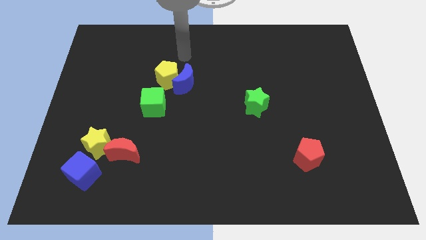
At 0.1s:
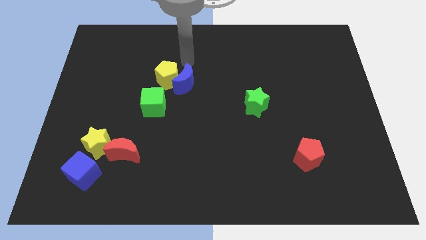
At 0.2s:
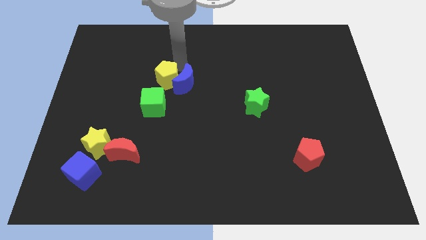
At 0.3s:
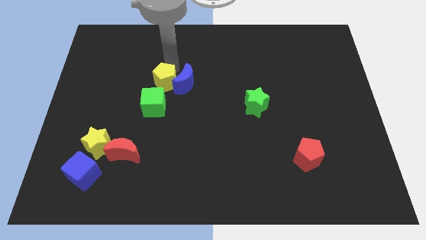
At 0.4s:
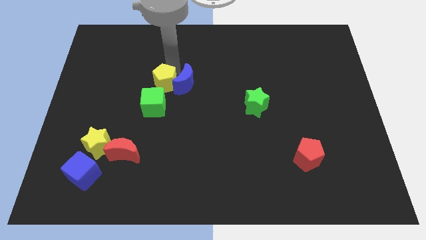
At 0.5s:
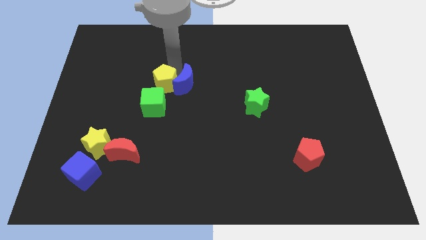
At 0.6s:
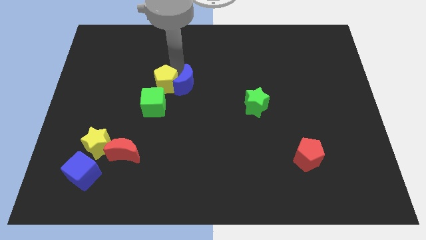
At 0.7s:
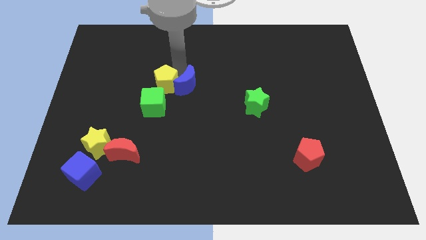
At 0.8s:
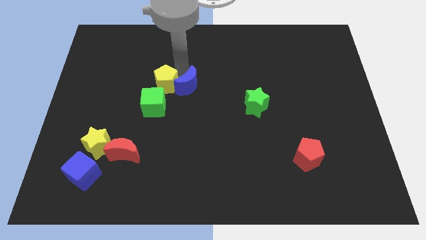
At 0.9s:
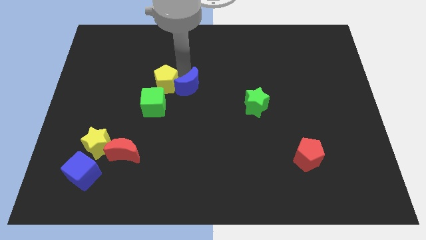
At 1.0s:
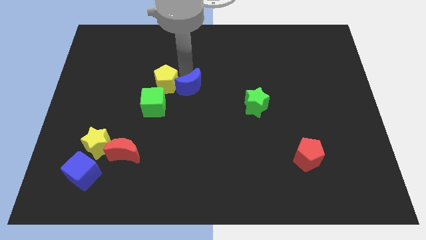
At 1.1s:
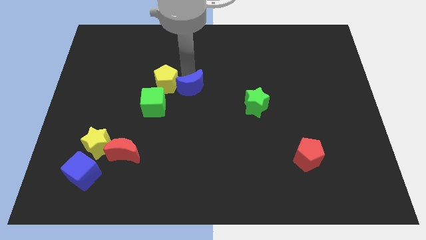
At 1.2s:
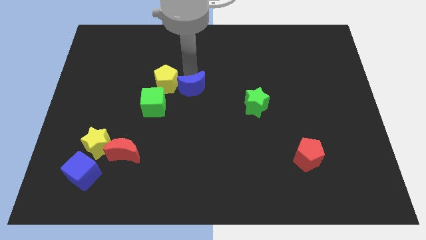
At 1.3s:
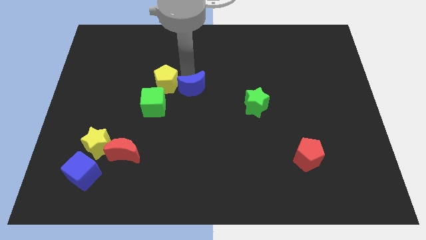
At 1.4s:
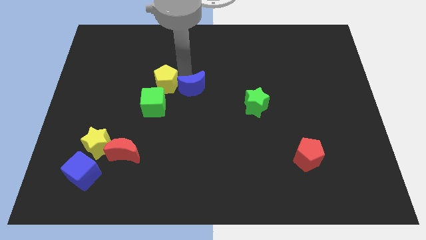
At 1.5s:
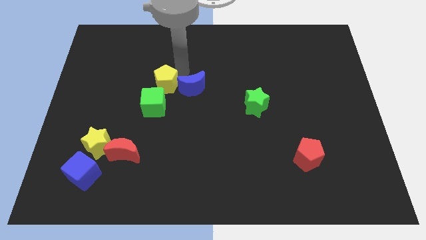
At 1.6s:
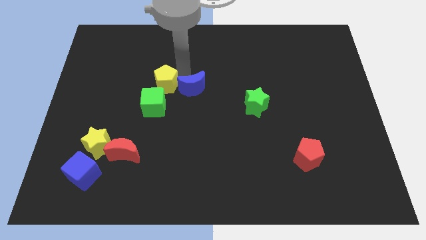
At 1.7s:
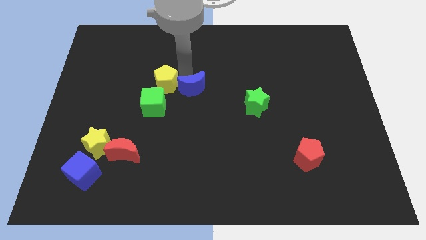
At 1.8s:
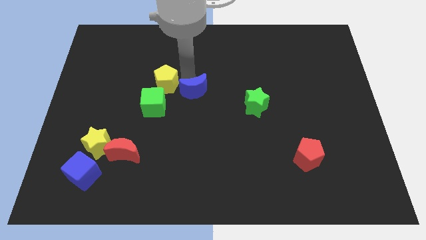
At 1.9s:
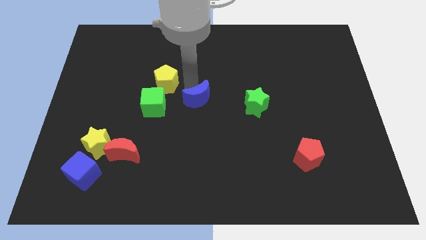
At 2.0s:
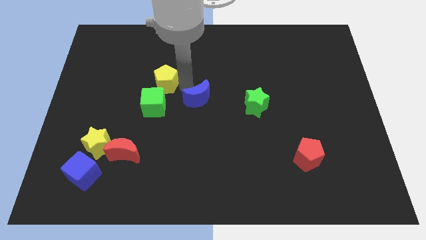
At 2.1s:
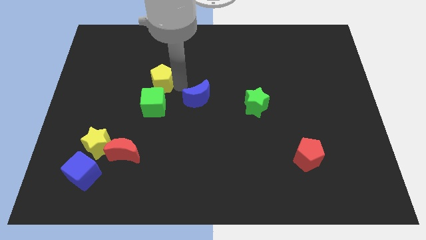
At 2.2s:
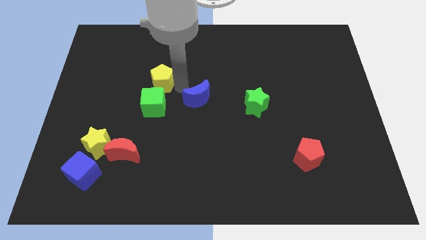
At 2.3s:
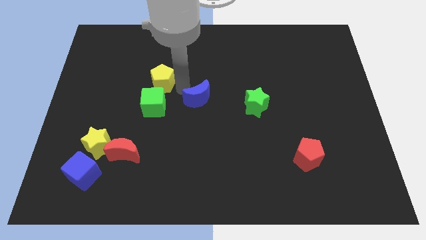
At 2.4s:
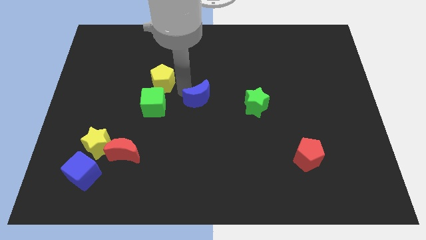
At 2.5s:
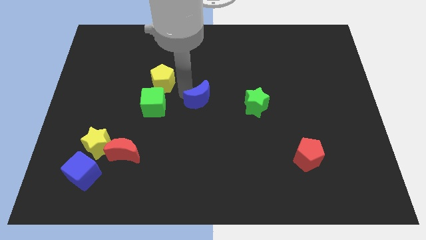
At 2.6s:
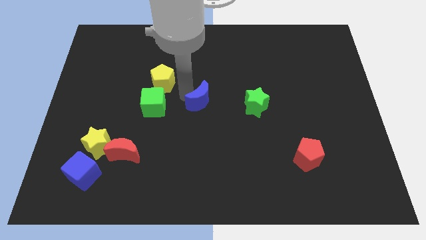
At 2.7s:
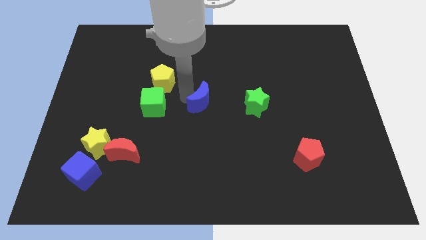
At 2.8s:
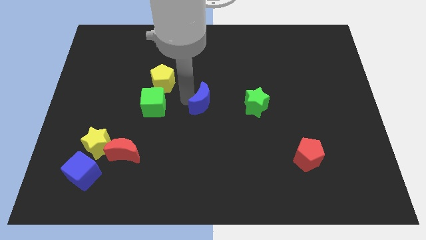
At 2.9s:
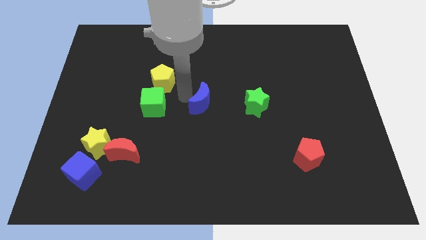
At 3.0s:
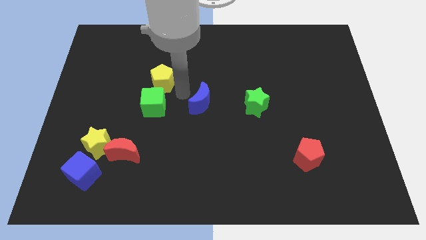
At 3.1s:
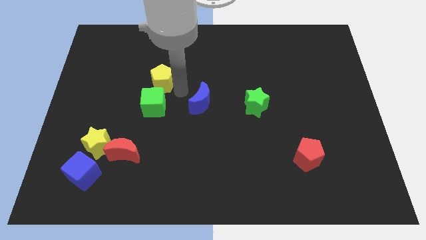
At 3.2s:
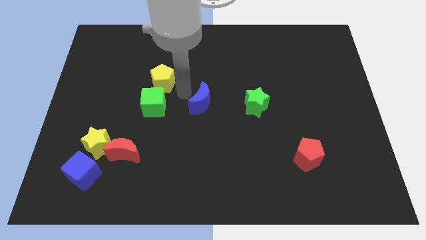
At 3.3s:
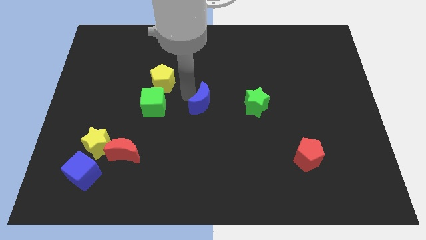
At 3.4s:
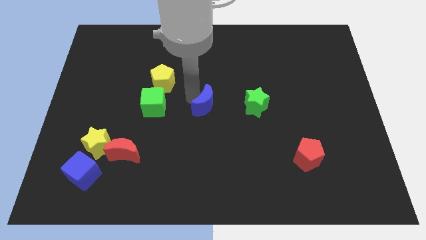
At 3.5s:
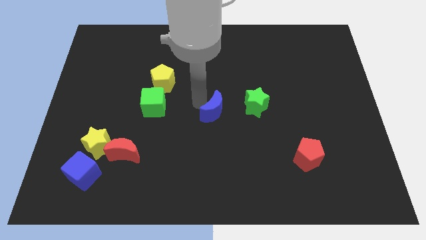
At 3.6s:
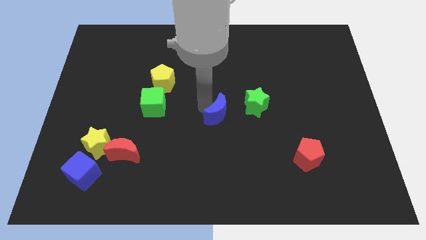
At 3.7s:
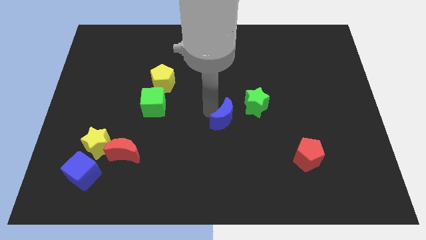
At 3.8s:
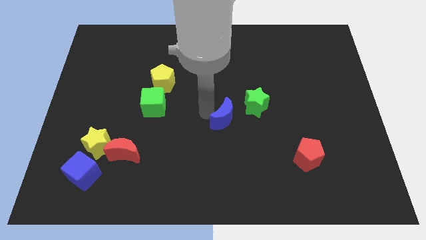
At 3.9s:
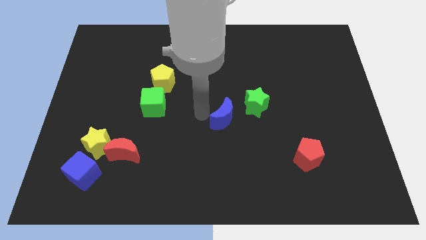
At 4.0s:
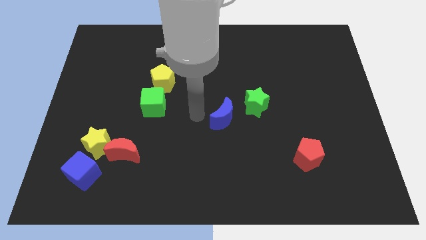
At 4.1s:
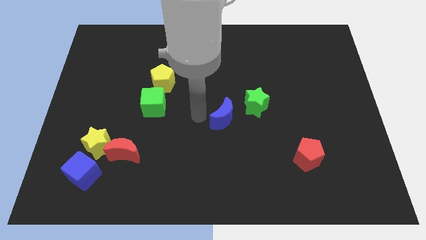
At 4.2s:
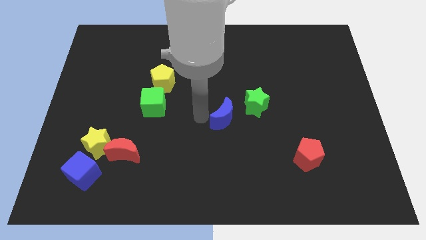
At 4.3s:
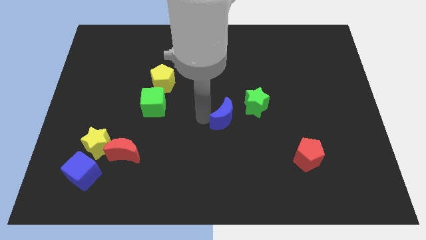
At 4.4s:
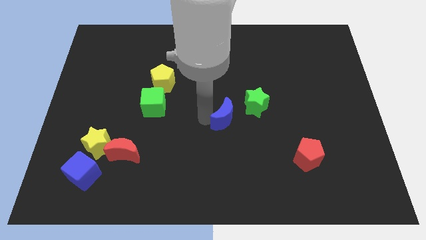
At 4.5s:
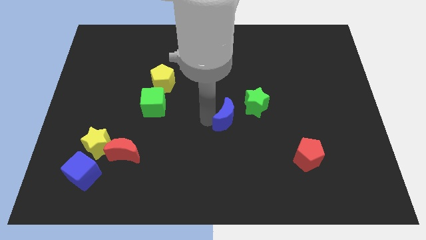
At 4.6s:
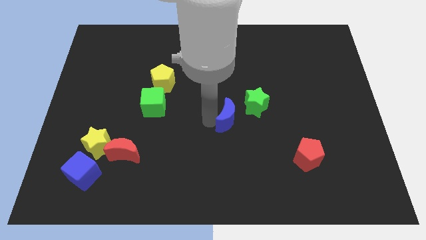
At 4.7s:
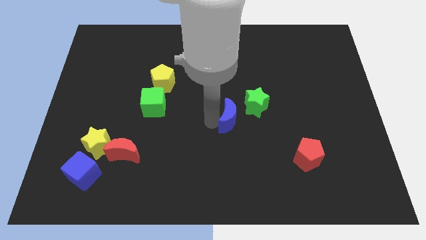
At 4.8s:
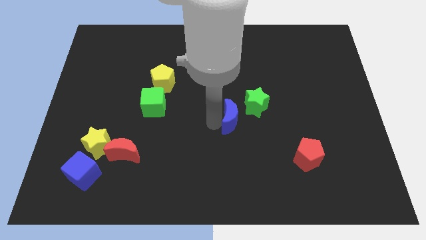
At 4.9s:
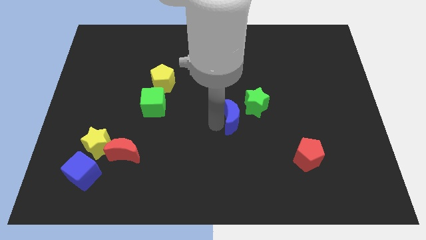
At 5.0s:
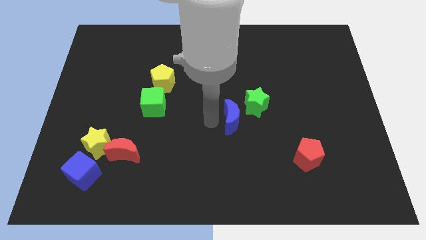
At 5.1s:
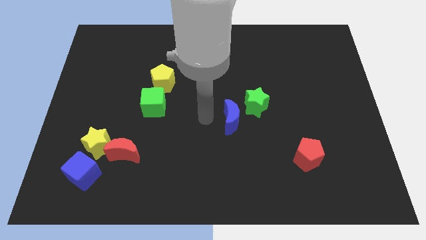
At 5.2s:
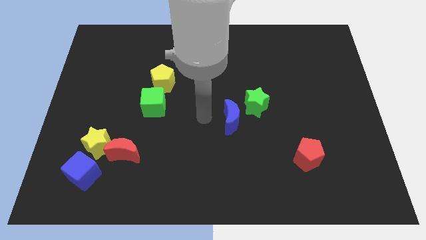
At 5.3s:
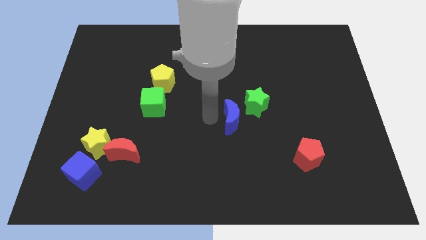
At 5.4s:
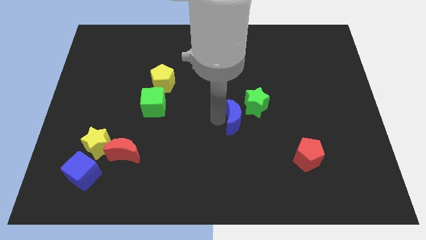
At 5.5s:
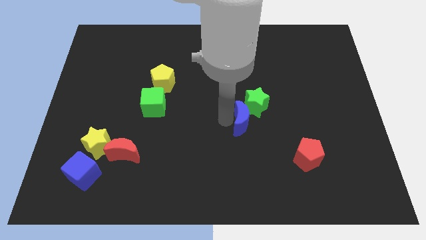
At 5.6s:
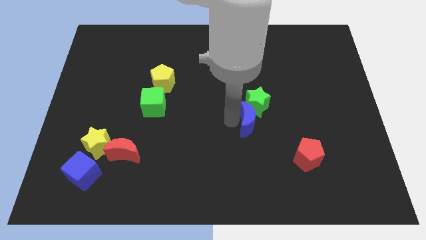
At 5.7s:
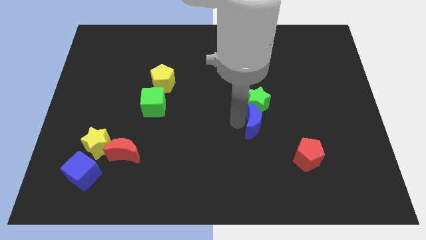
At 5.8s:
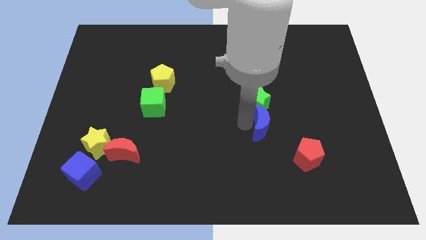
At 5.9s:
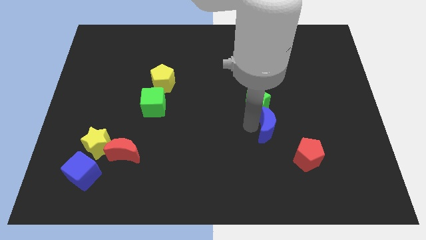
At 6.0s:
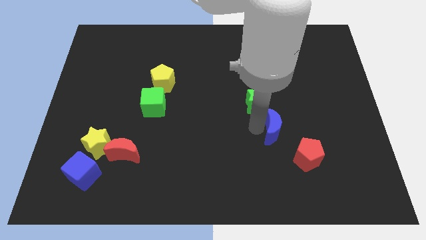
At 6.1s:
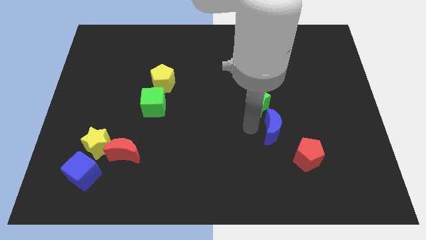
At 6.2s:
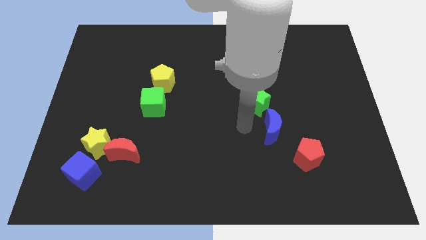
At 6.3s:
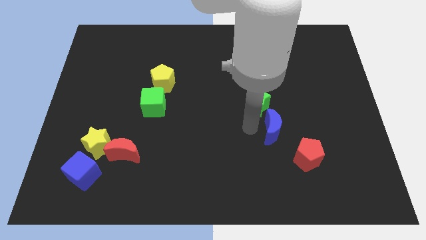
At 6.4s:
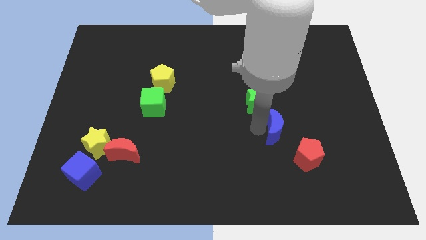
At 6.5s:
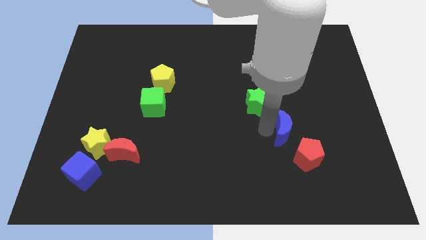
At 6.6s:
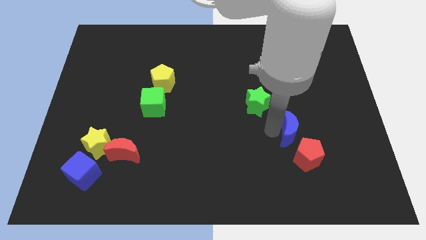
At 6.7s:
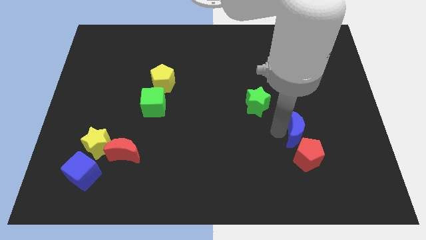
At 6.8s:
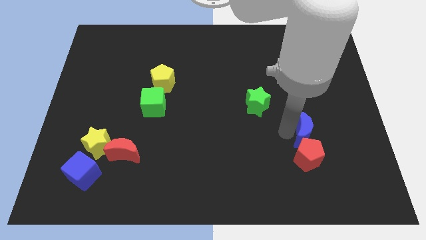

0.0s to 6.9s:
push the blue moon to the top right of the red pentagon

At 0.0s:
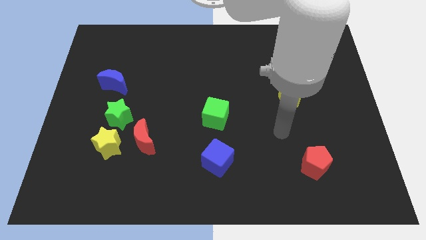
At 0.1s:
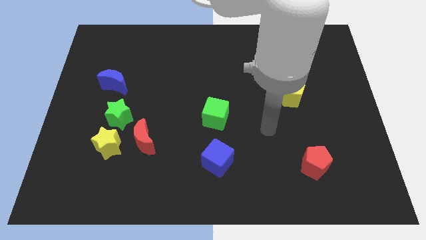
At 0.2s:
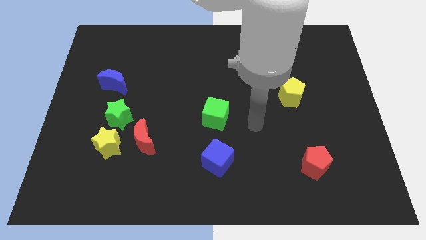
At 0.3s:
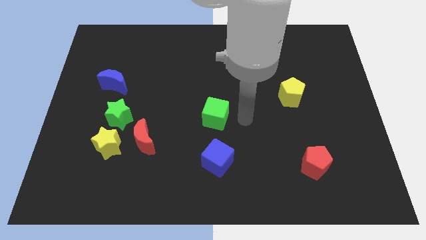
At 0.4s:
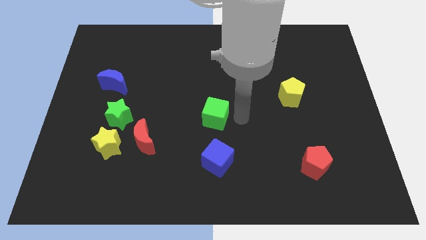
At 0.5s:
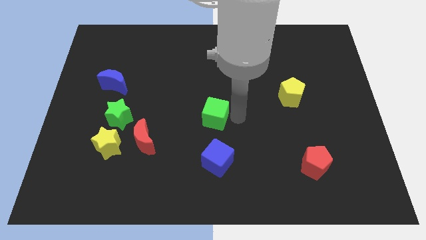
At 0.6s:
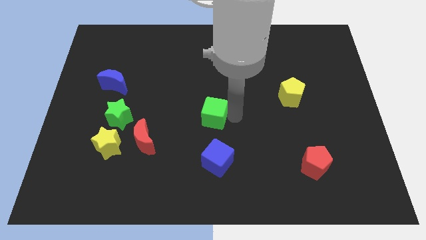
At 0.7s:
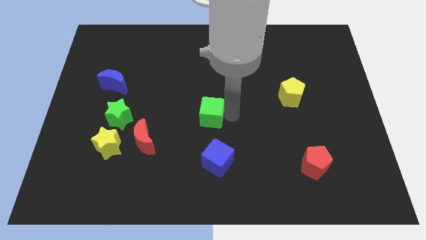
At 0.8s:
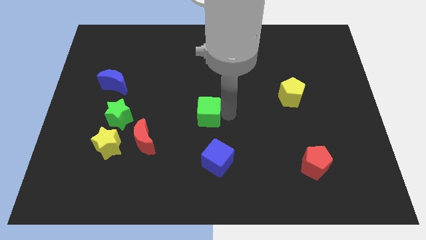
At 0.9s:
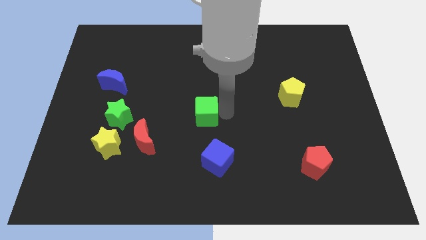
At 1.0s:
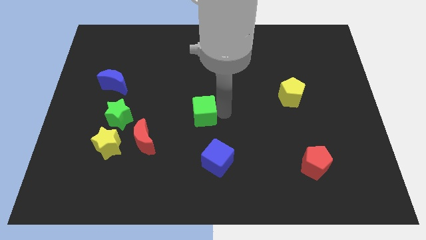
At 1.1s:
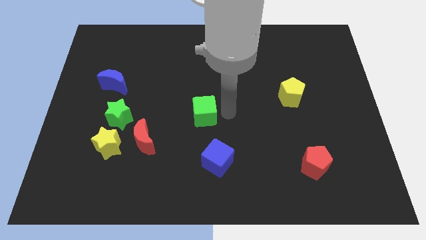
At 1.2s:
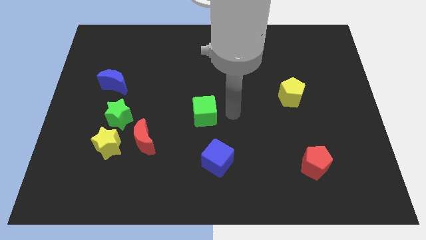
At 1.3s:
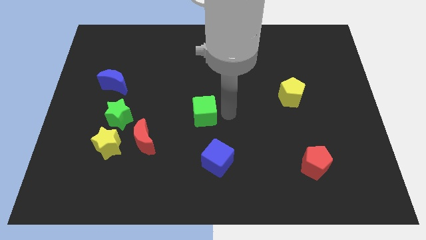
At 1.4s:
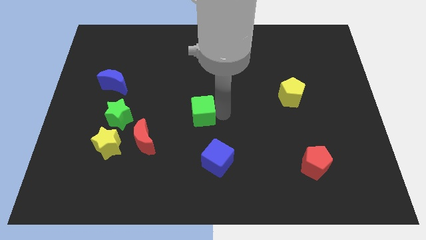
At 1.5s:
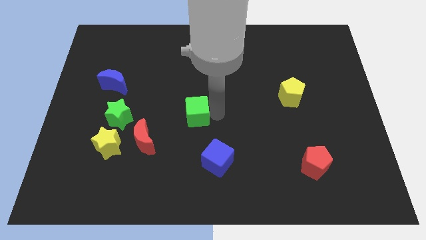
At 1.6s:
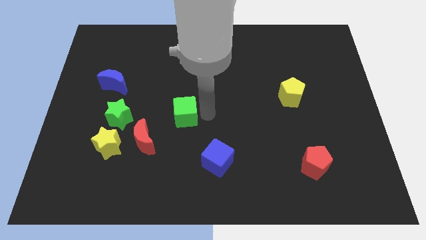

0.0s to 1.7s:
put the green cube to the right of the green star
